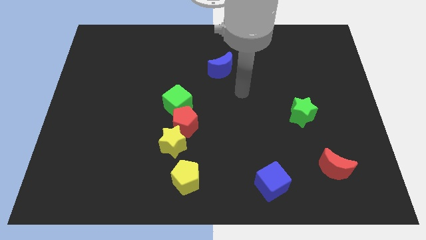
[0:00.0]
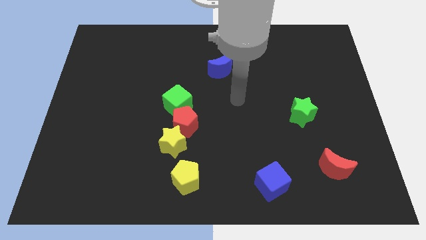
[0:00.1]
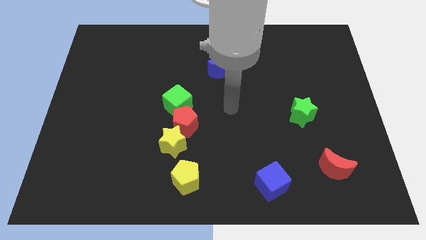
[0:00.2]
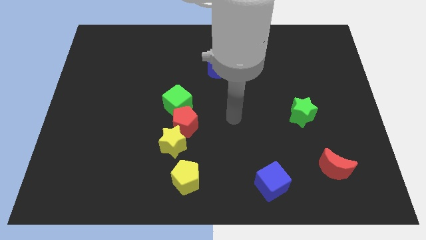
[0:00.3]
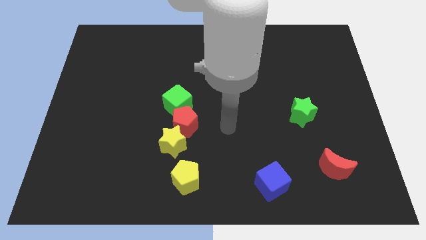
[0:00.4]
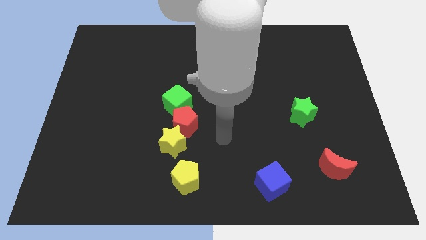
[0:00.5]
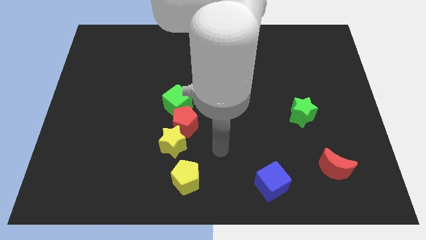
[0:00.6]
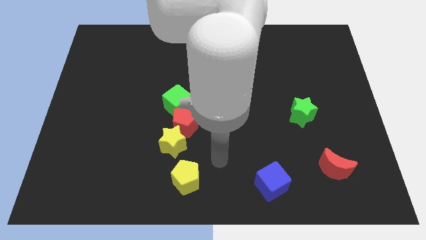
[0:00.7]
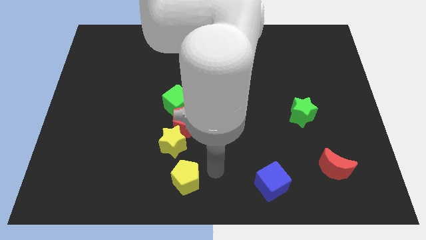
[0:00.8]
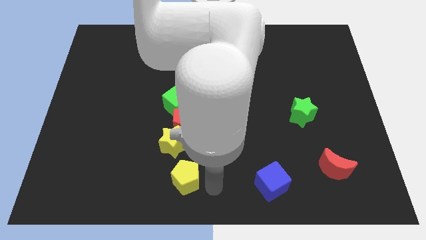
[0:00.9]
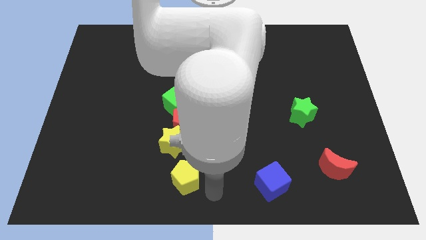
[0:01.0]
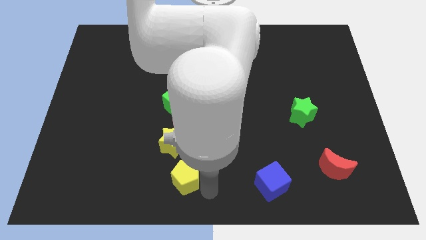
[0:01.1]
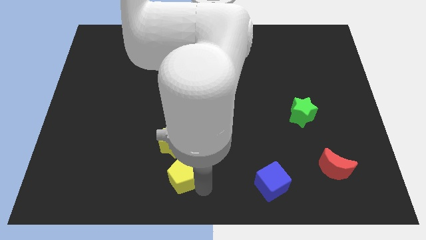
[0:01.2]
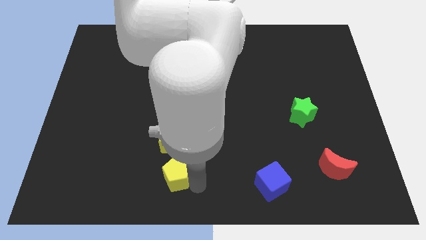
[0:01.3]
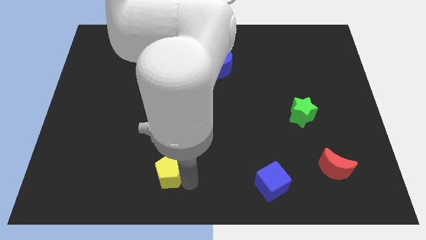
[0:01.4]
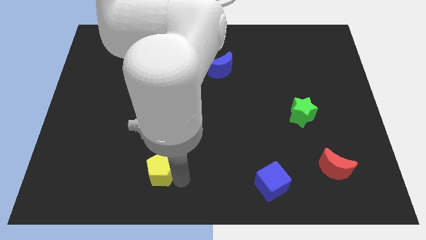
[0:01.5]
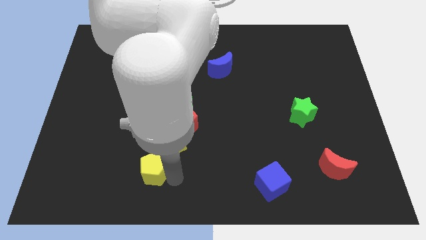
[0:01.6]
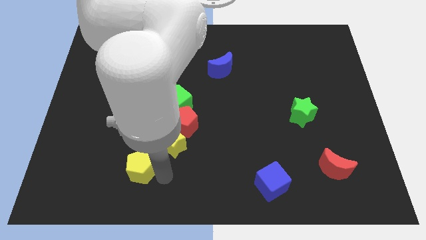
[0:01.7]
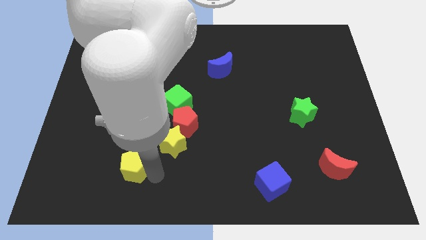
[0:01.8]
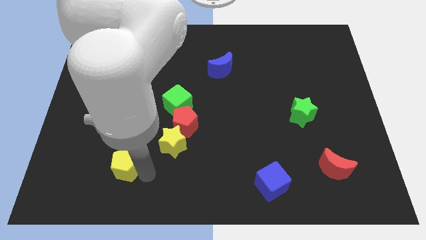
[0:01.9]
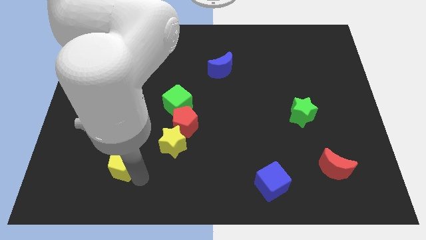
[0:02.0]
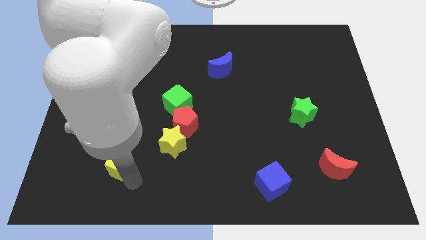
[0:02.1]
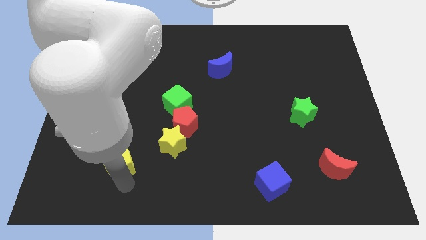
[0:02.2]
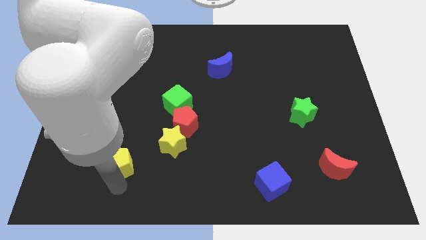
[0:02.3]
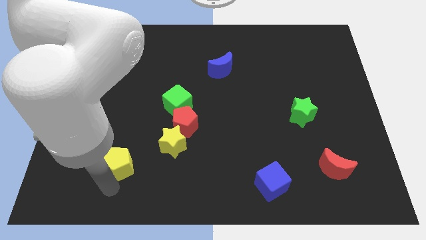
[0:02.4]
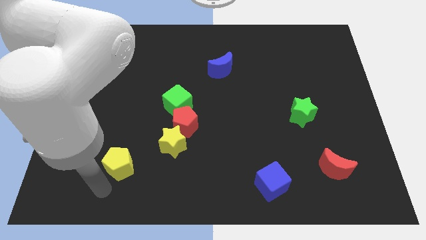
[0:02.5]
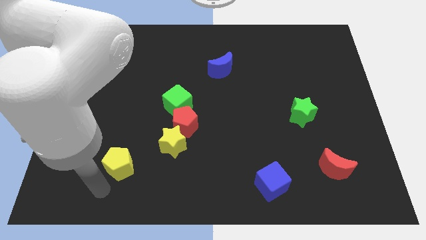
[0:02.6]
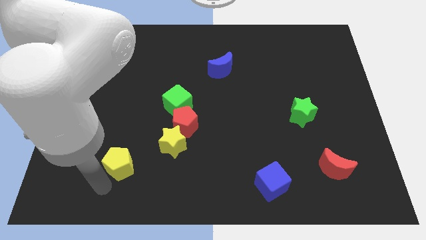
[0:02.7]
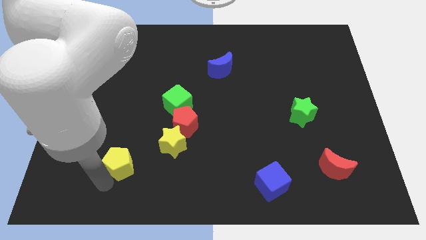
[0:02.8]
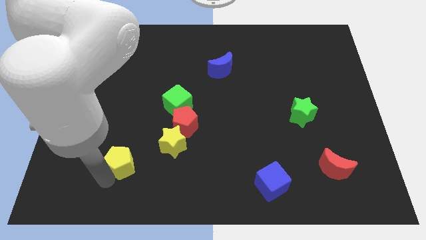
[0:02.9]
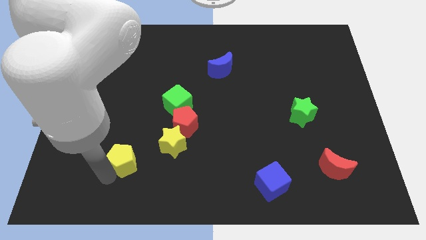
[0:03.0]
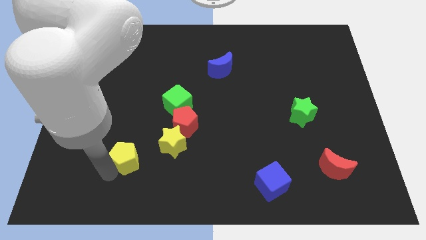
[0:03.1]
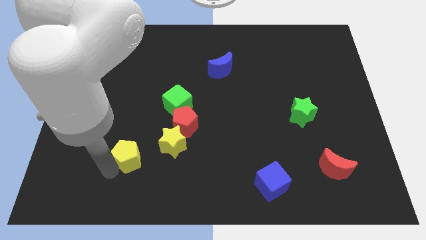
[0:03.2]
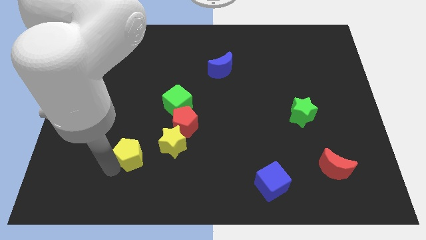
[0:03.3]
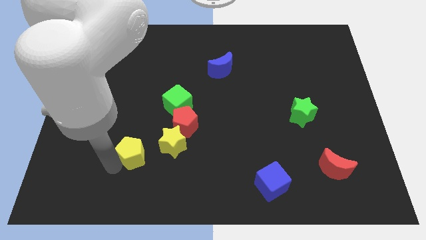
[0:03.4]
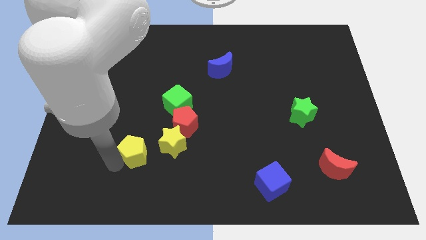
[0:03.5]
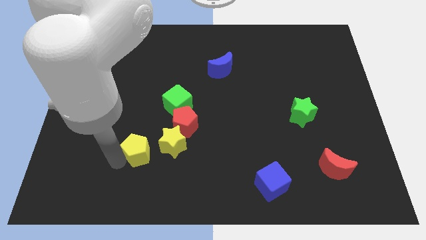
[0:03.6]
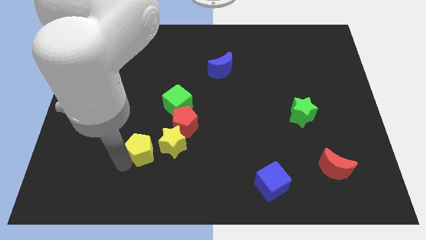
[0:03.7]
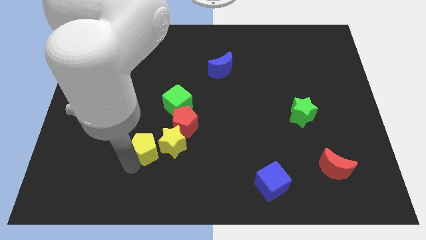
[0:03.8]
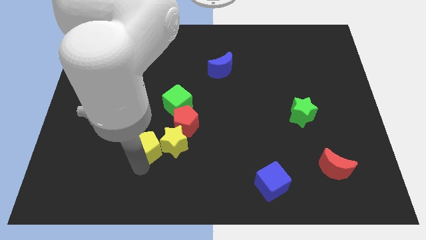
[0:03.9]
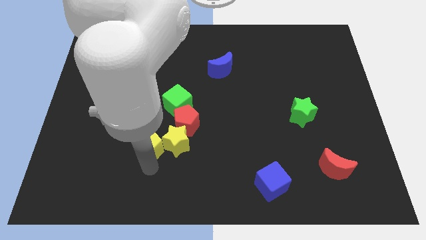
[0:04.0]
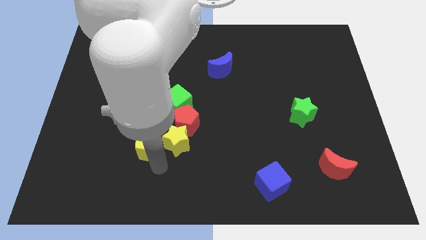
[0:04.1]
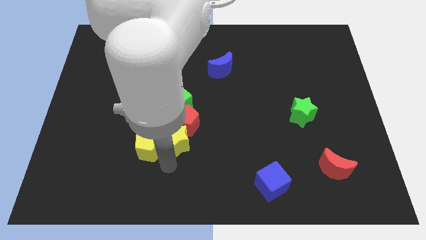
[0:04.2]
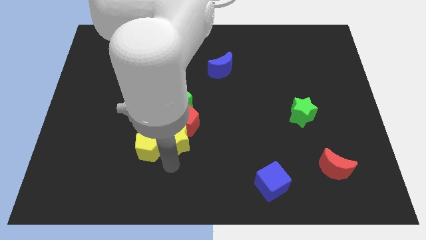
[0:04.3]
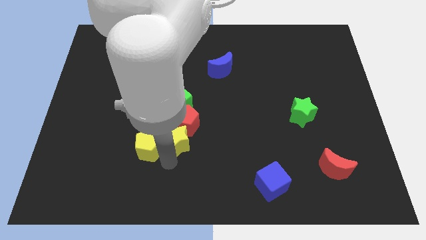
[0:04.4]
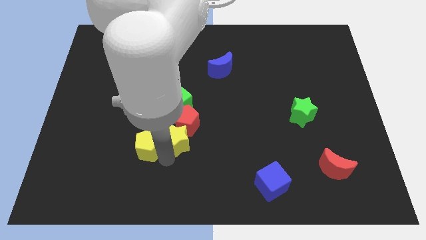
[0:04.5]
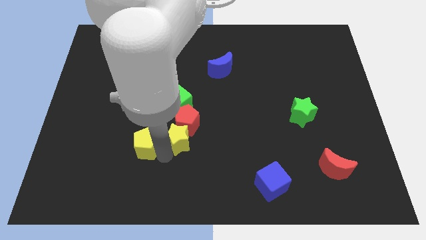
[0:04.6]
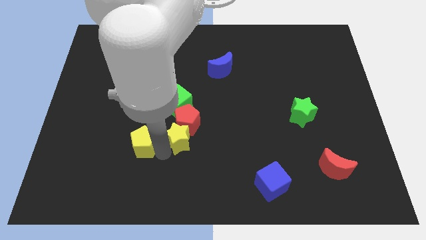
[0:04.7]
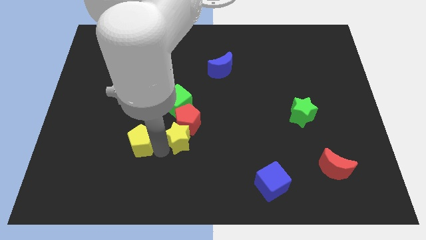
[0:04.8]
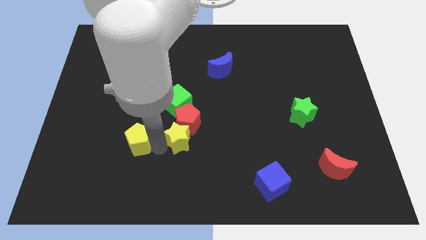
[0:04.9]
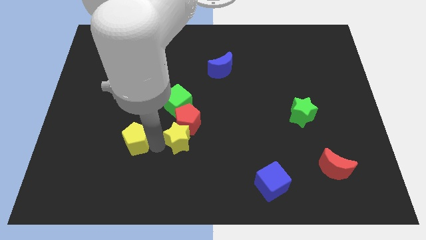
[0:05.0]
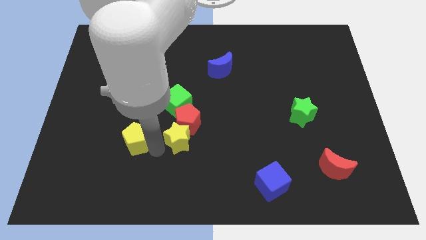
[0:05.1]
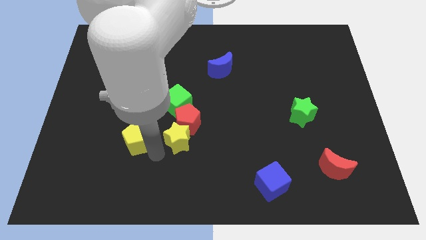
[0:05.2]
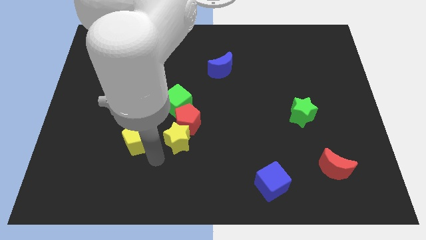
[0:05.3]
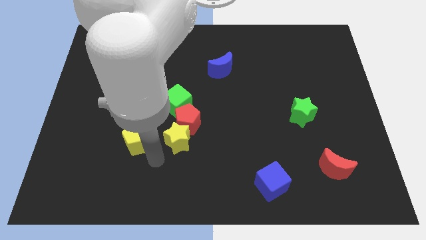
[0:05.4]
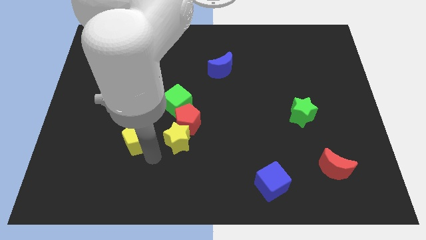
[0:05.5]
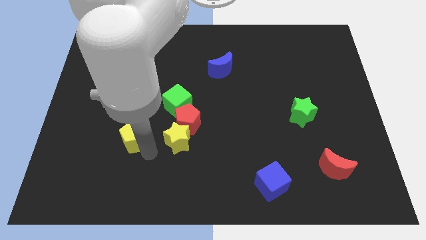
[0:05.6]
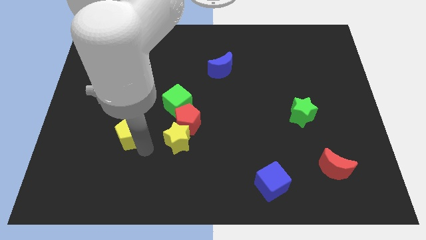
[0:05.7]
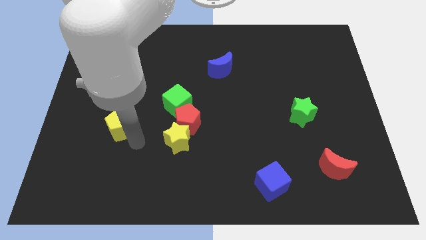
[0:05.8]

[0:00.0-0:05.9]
push the yellow pentagon diagonally up and left

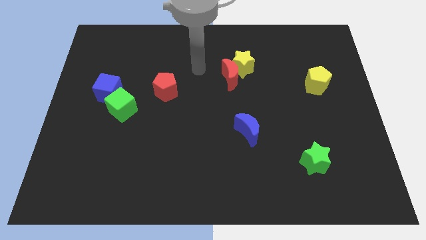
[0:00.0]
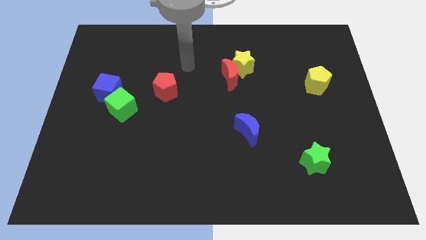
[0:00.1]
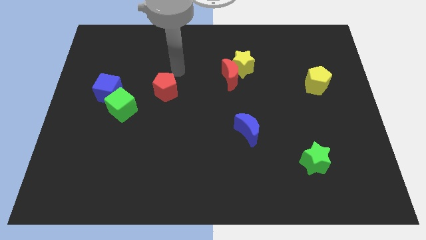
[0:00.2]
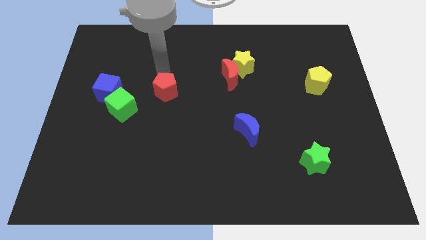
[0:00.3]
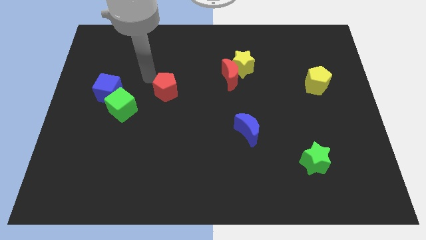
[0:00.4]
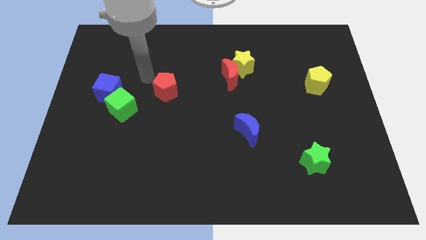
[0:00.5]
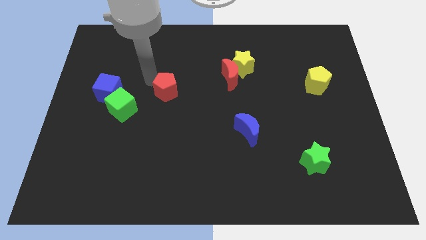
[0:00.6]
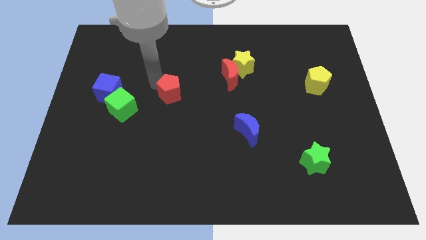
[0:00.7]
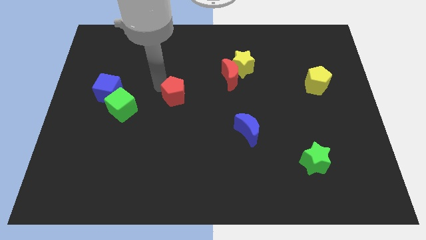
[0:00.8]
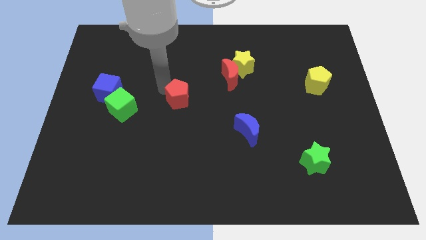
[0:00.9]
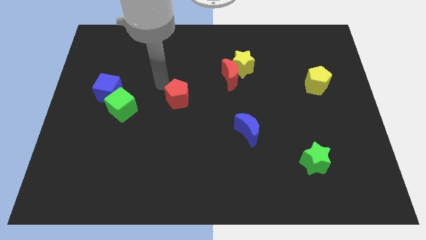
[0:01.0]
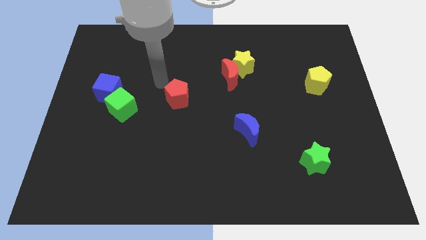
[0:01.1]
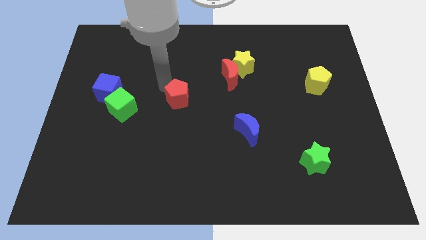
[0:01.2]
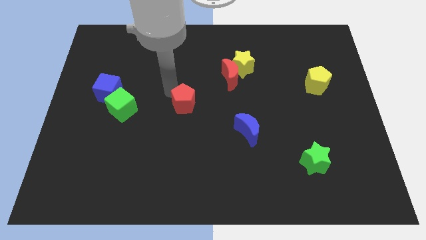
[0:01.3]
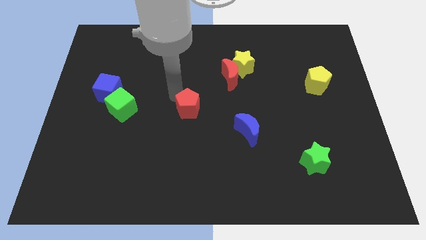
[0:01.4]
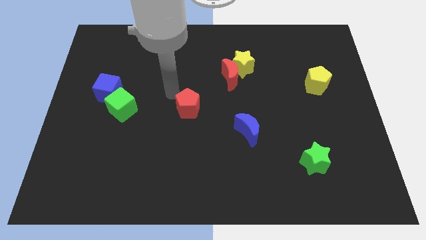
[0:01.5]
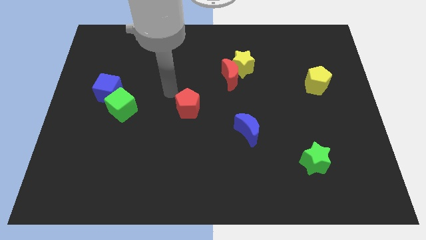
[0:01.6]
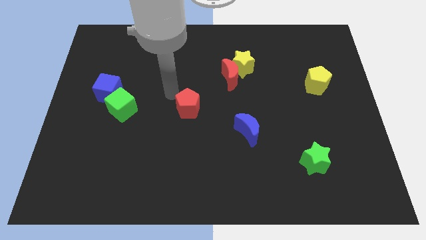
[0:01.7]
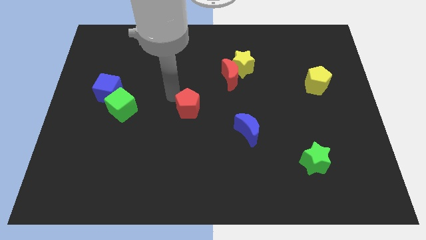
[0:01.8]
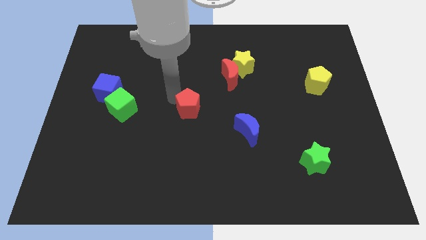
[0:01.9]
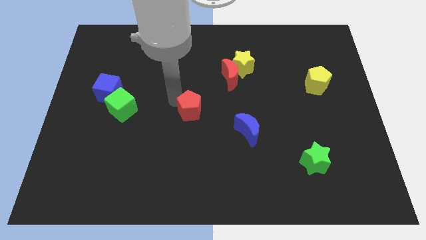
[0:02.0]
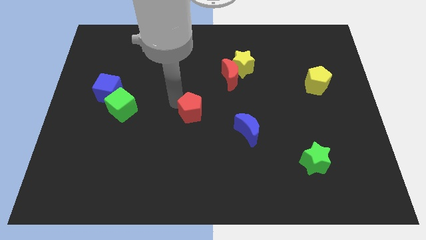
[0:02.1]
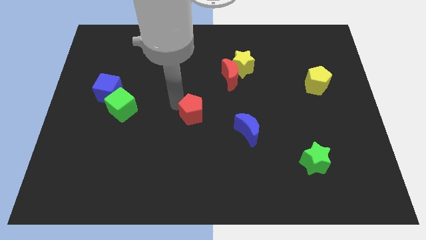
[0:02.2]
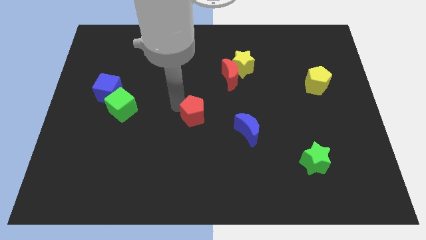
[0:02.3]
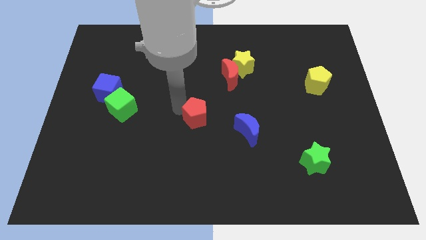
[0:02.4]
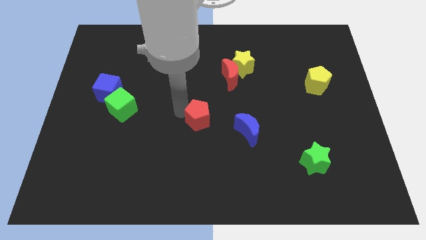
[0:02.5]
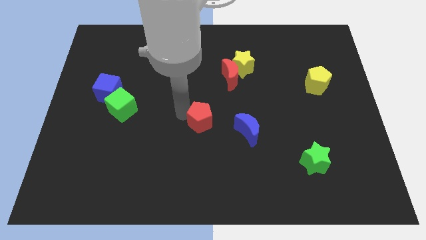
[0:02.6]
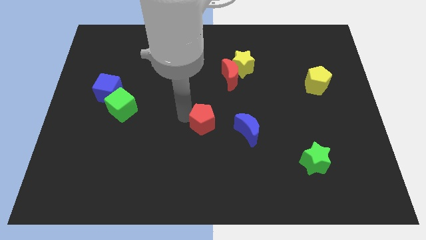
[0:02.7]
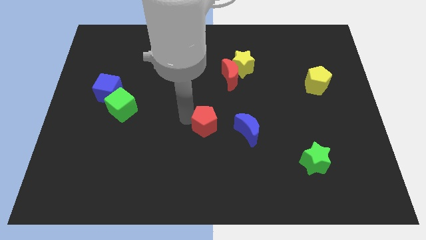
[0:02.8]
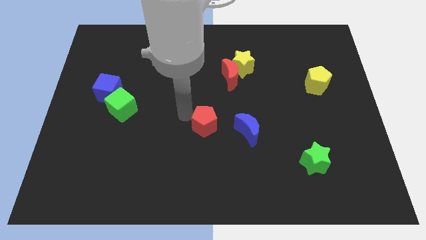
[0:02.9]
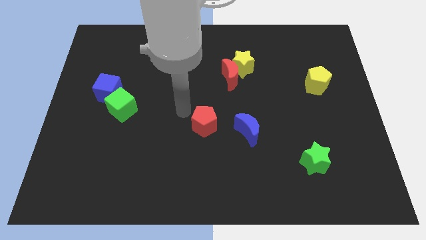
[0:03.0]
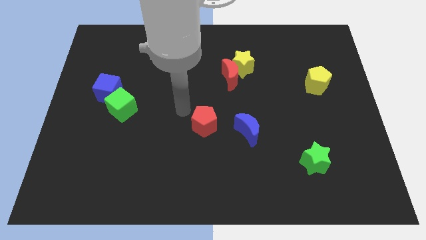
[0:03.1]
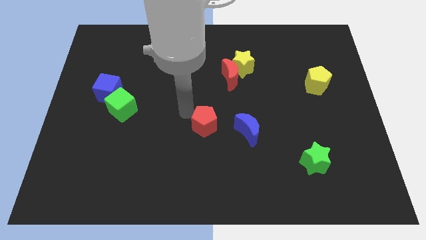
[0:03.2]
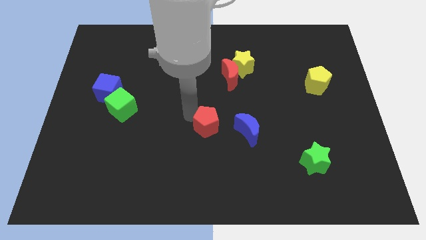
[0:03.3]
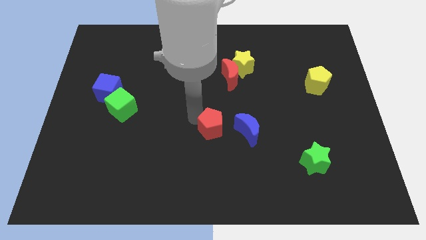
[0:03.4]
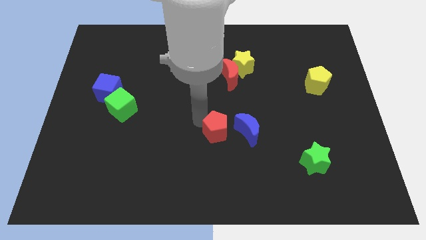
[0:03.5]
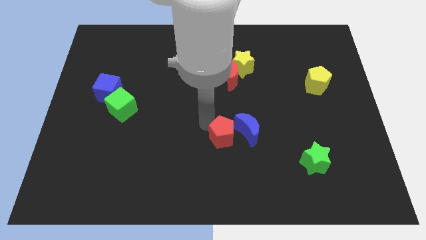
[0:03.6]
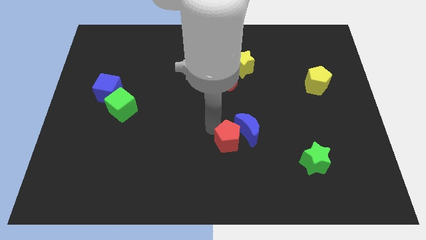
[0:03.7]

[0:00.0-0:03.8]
push the red pentagon downwards and to the right diagonally
